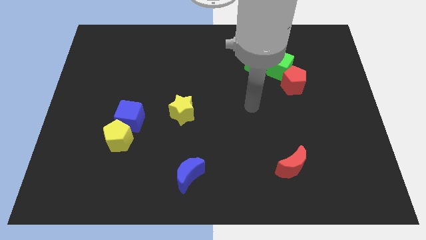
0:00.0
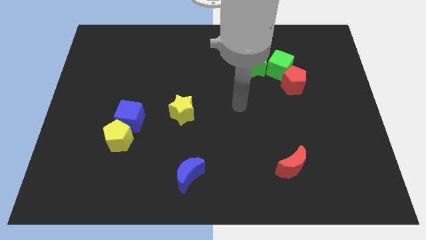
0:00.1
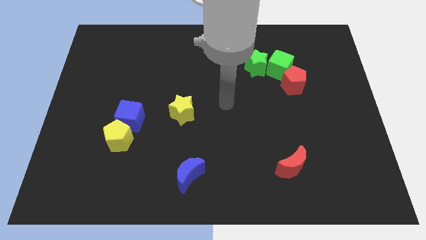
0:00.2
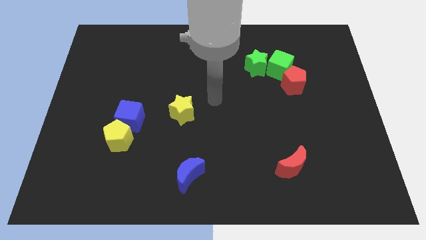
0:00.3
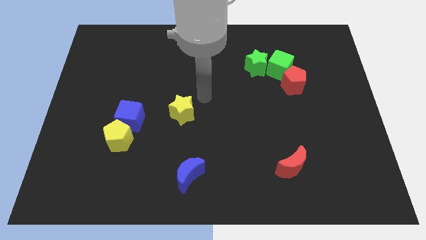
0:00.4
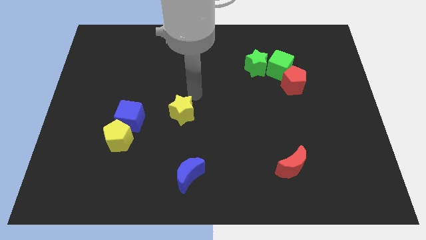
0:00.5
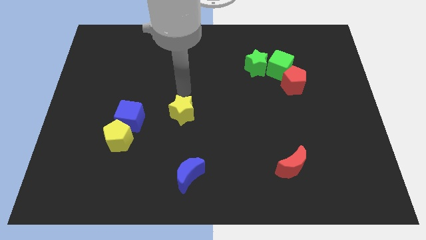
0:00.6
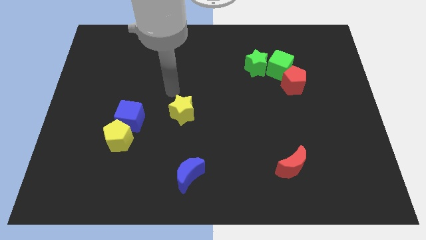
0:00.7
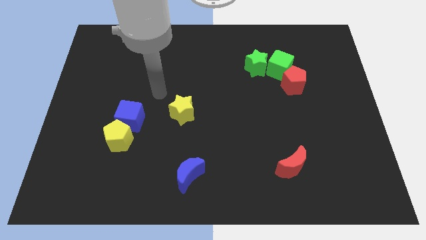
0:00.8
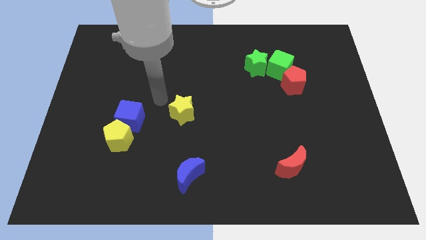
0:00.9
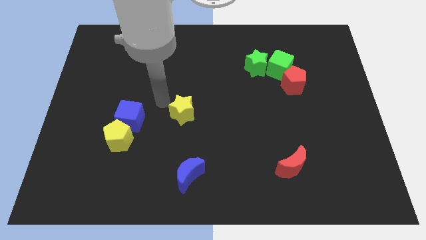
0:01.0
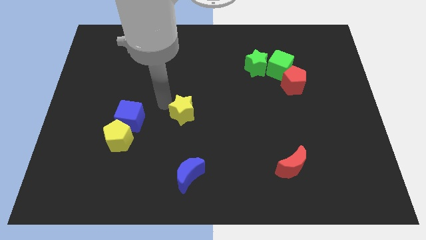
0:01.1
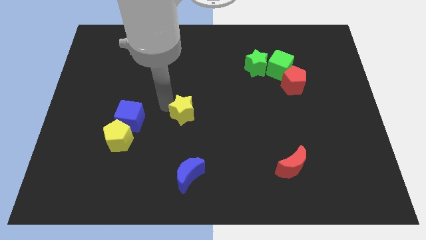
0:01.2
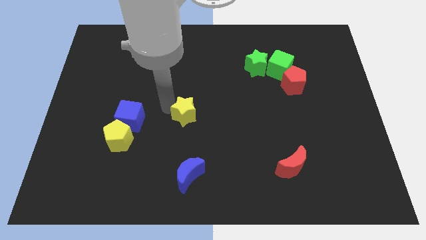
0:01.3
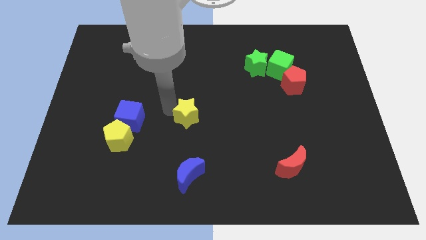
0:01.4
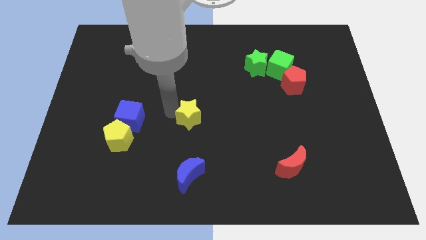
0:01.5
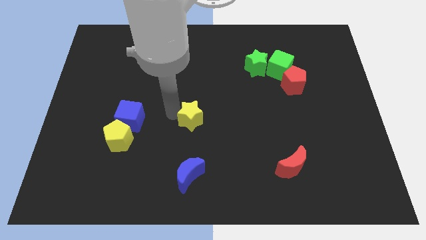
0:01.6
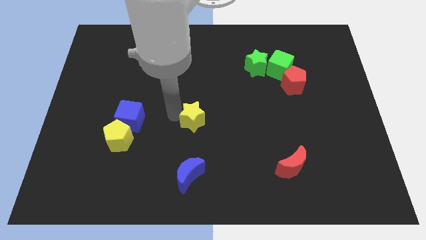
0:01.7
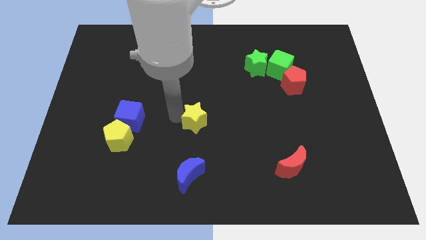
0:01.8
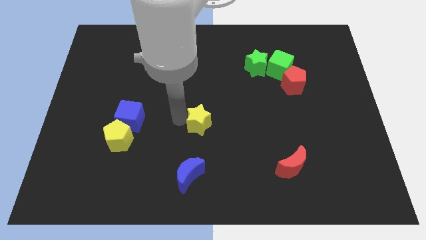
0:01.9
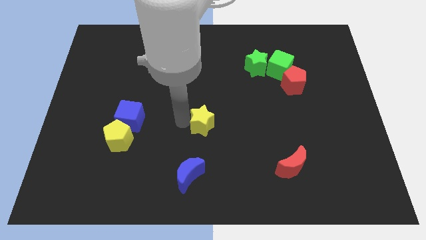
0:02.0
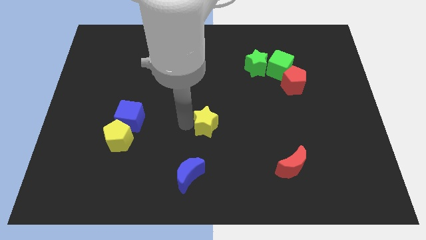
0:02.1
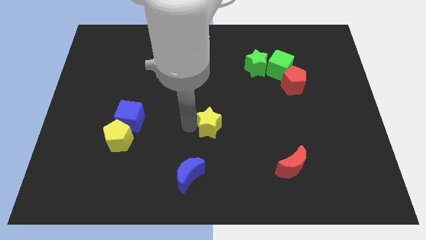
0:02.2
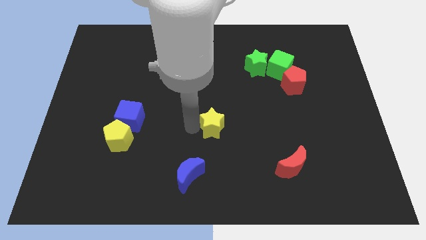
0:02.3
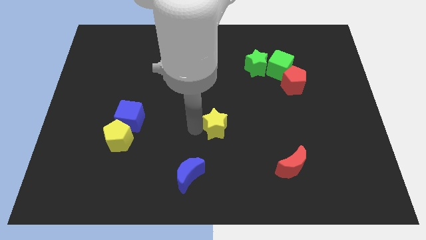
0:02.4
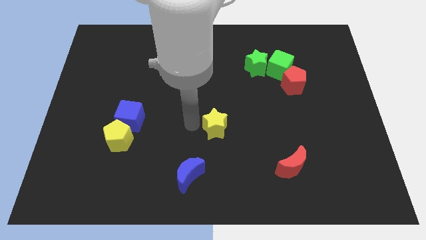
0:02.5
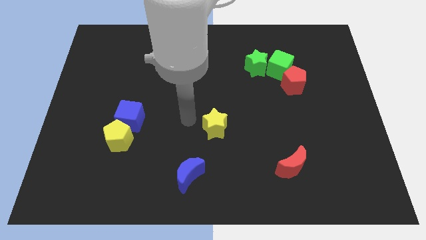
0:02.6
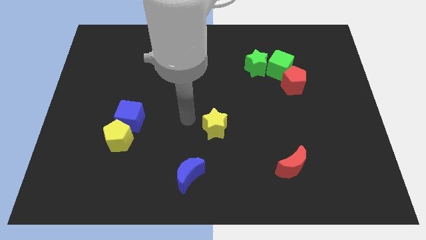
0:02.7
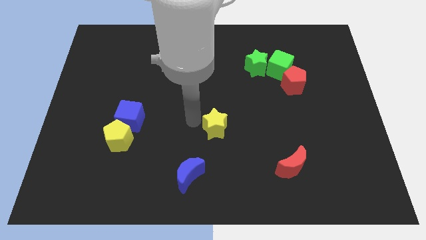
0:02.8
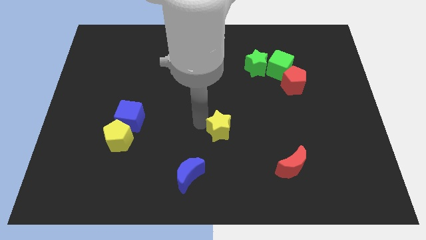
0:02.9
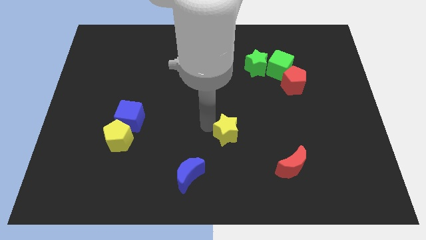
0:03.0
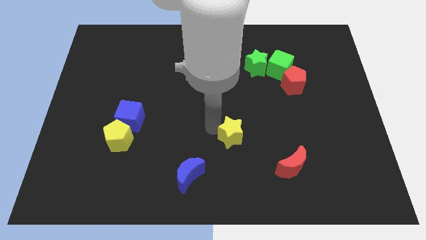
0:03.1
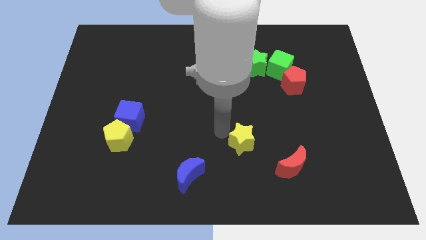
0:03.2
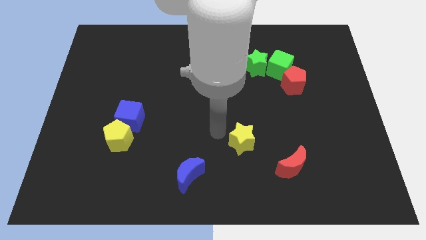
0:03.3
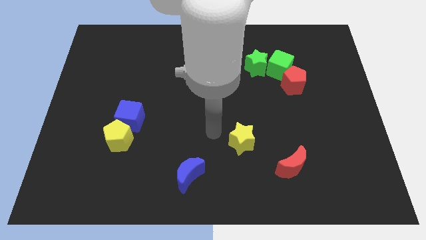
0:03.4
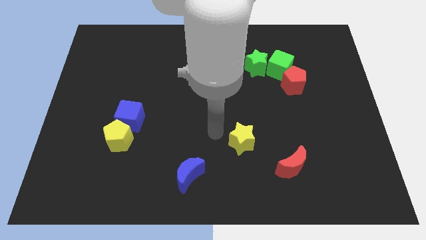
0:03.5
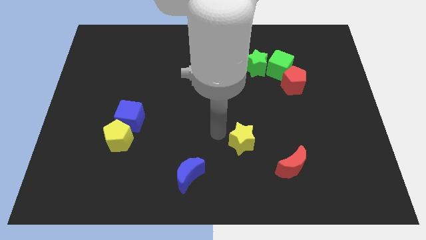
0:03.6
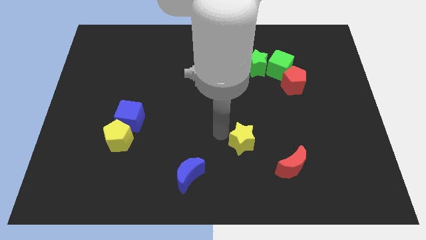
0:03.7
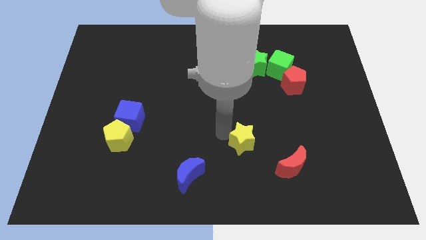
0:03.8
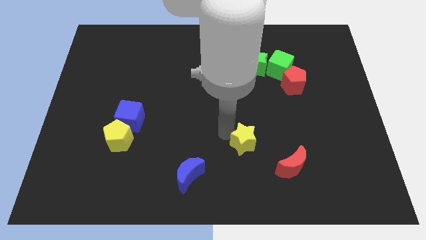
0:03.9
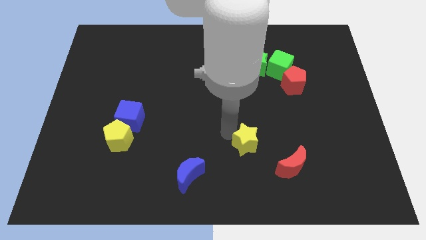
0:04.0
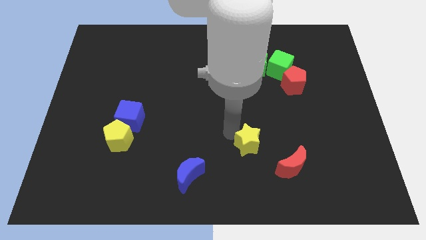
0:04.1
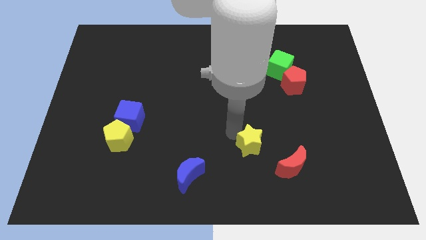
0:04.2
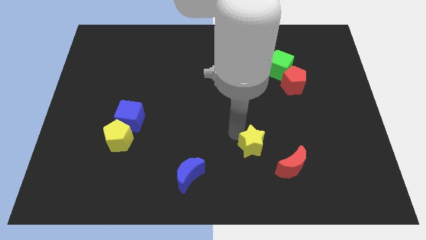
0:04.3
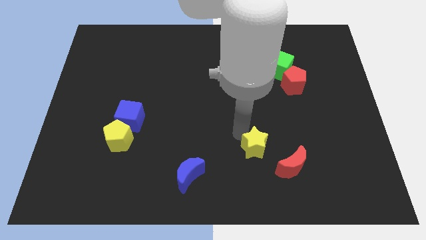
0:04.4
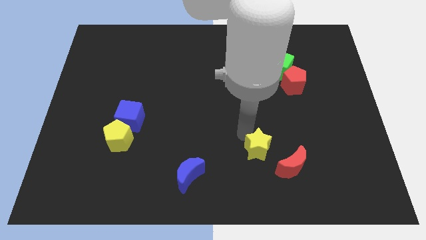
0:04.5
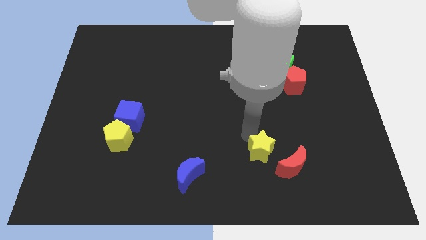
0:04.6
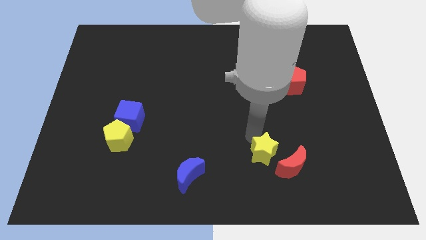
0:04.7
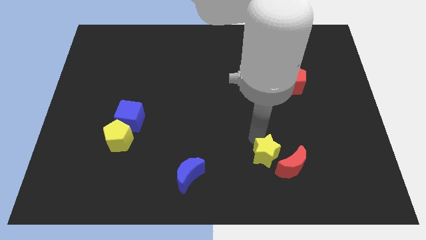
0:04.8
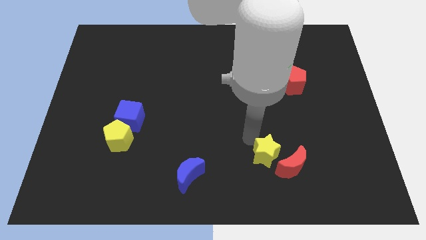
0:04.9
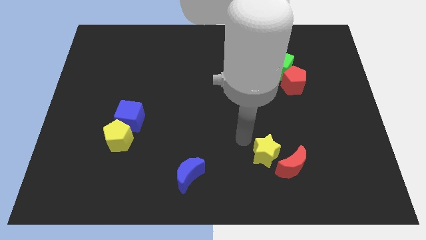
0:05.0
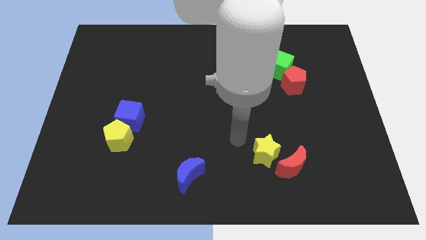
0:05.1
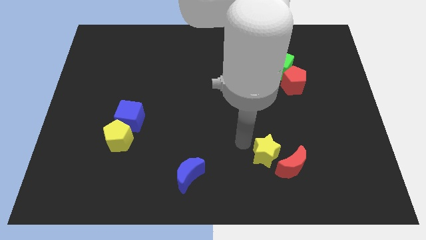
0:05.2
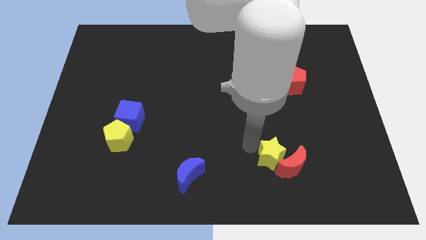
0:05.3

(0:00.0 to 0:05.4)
push the yellow star towards the red moon

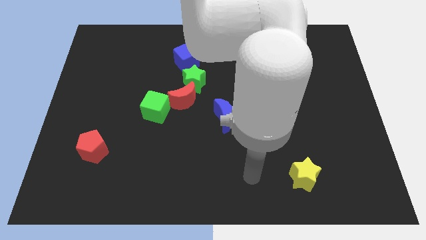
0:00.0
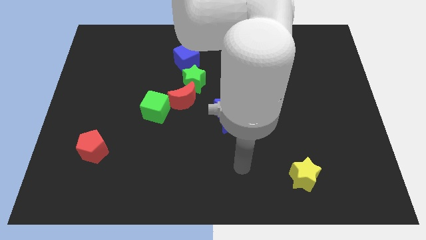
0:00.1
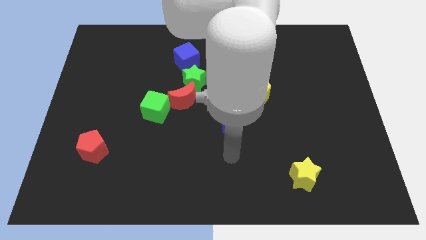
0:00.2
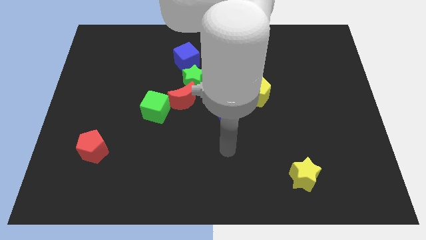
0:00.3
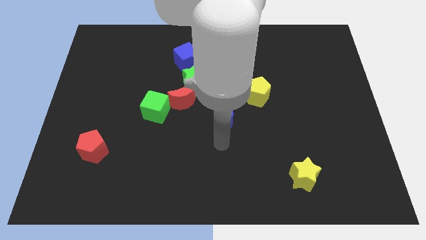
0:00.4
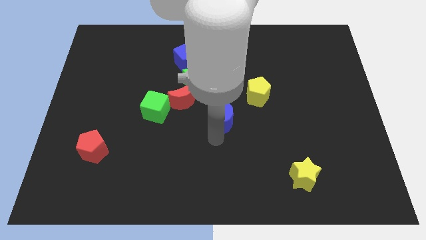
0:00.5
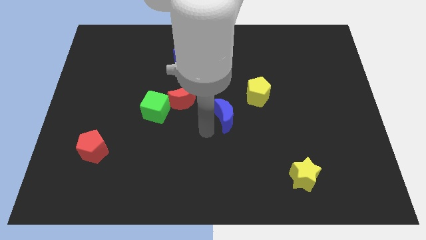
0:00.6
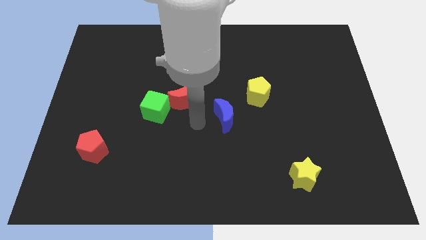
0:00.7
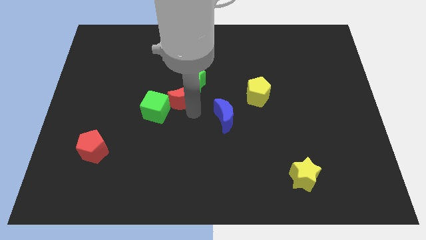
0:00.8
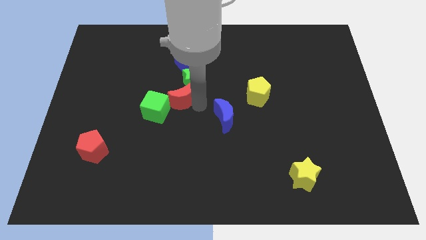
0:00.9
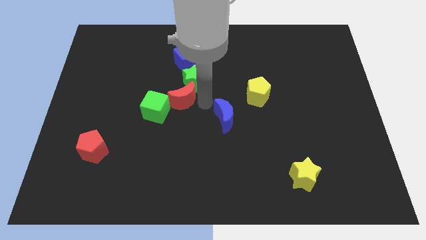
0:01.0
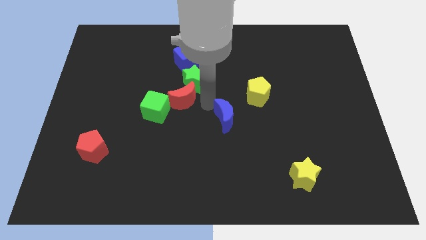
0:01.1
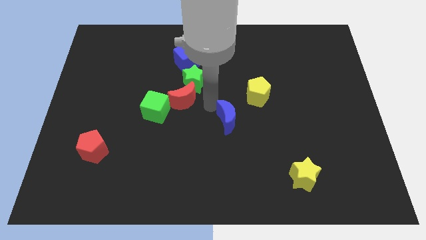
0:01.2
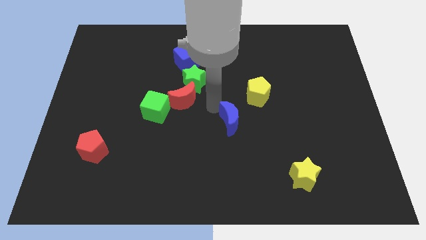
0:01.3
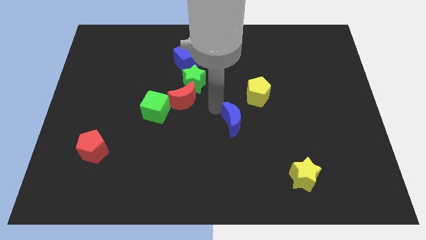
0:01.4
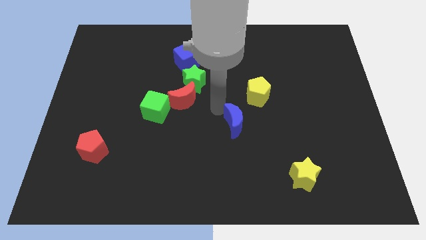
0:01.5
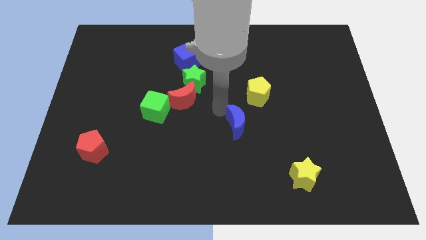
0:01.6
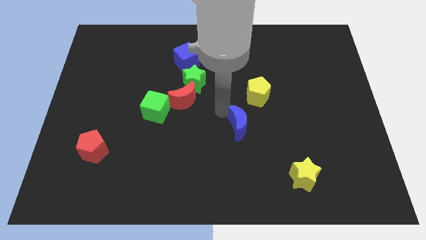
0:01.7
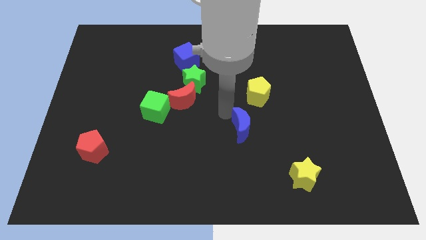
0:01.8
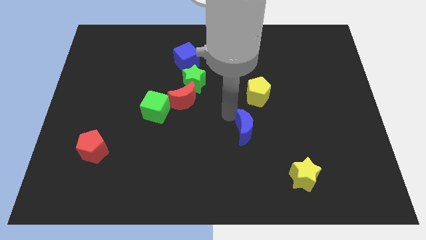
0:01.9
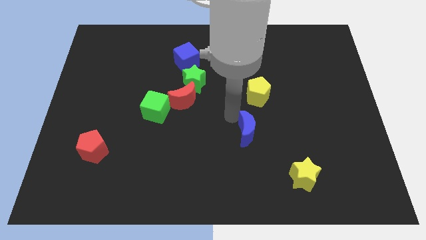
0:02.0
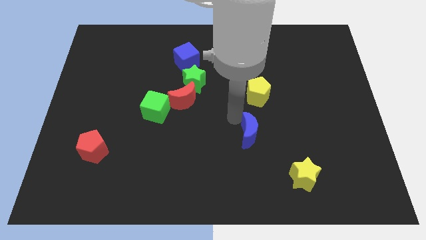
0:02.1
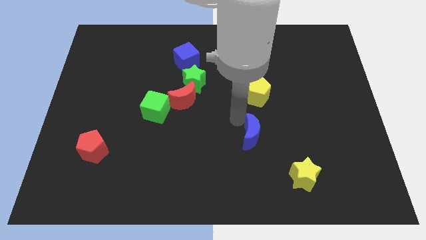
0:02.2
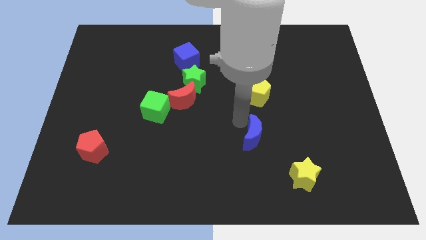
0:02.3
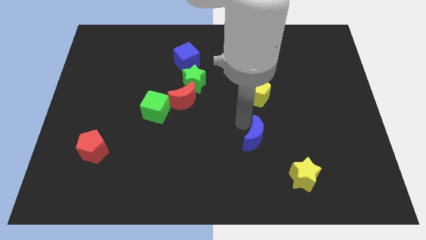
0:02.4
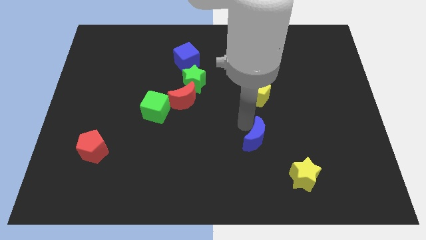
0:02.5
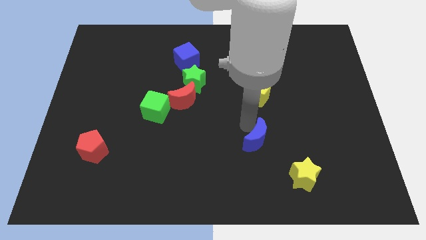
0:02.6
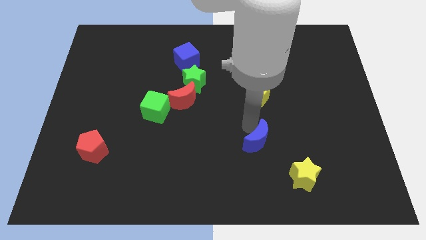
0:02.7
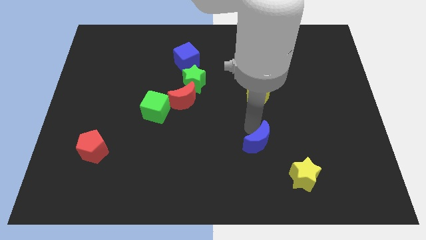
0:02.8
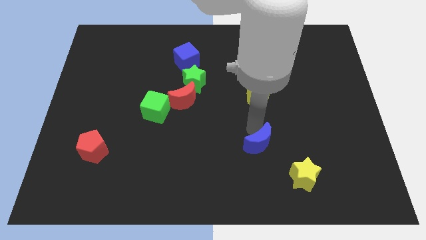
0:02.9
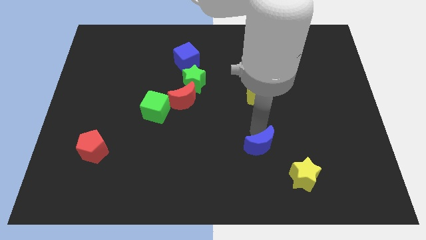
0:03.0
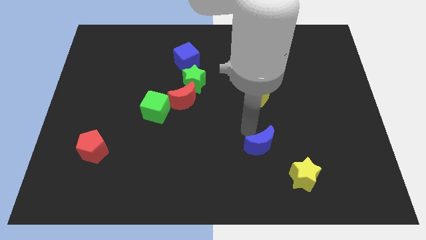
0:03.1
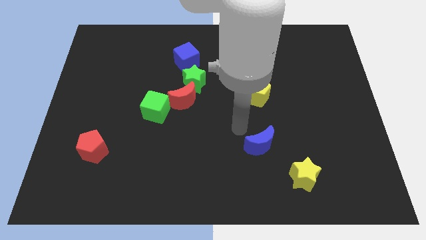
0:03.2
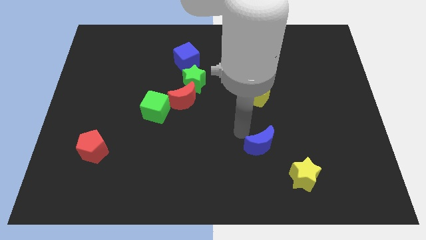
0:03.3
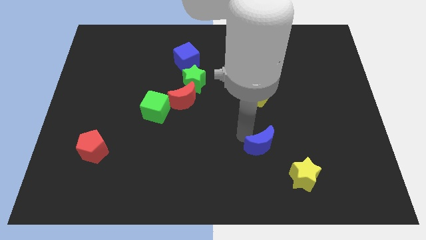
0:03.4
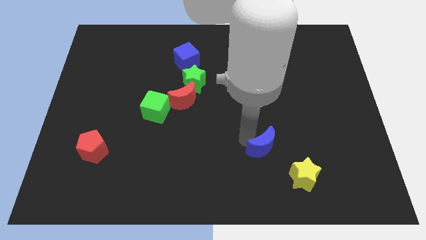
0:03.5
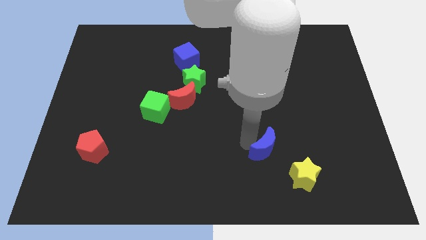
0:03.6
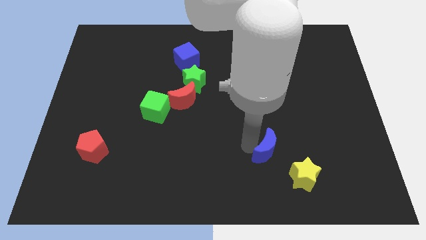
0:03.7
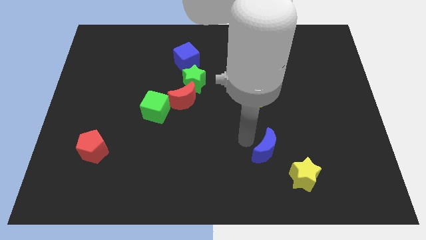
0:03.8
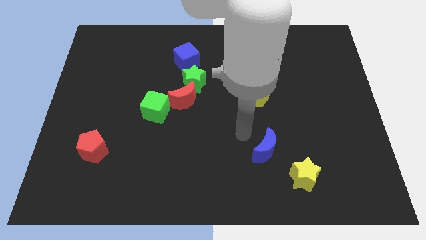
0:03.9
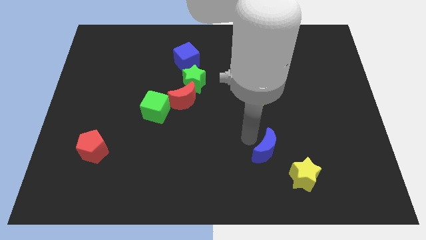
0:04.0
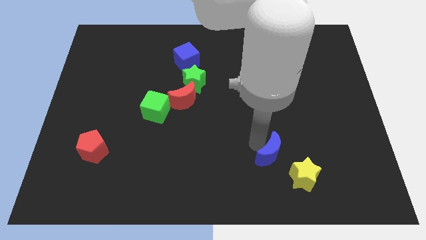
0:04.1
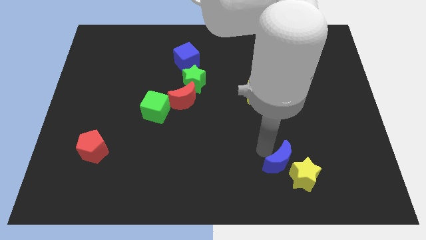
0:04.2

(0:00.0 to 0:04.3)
slide the blue moon to the yellow star
